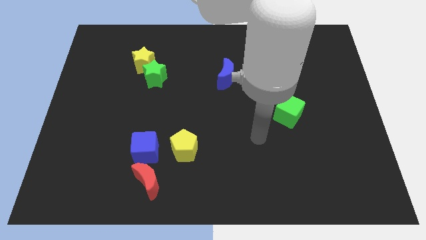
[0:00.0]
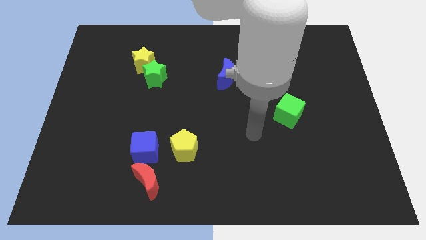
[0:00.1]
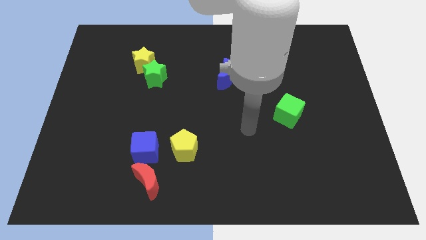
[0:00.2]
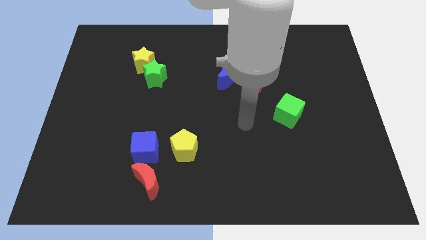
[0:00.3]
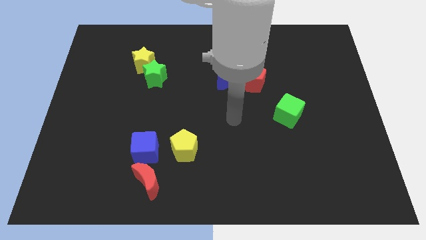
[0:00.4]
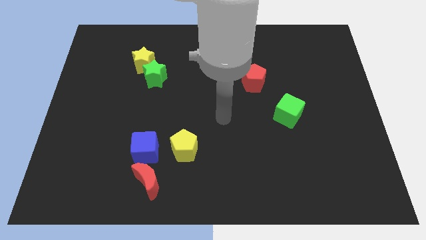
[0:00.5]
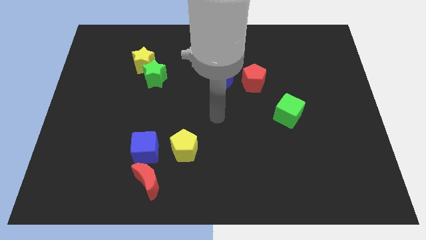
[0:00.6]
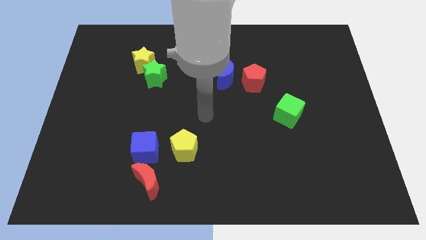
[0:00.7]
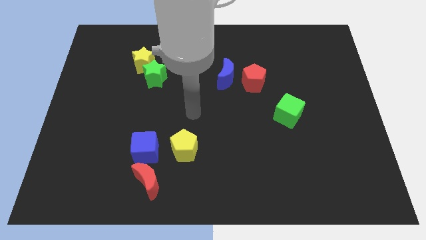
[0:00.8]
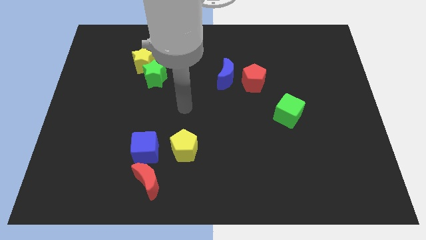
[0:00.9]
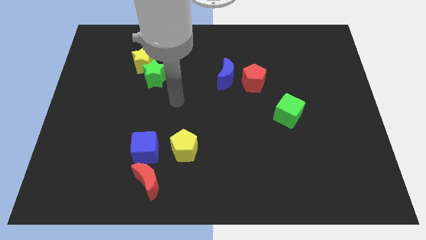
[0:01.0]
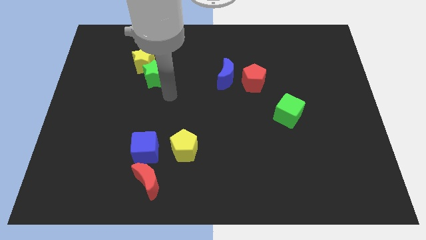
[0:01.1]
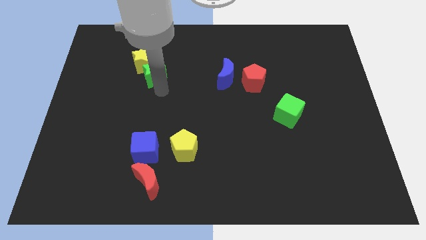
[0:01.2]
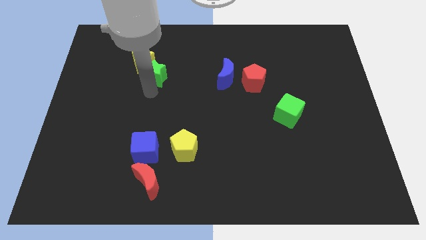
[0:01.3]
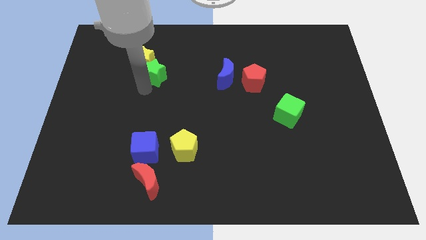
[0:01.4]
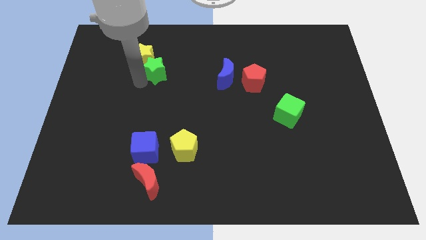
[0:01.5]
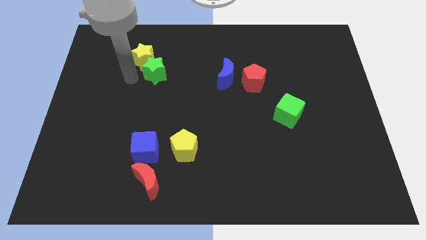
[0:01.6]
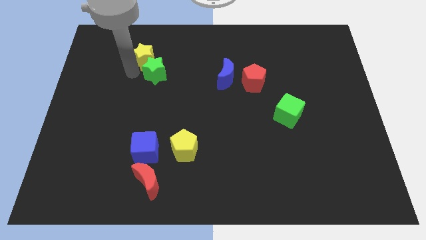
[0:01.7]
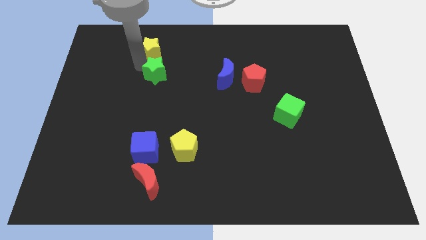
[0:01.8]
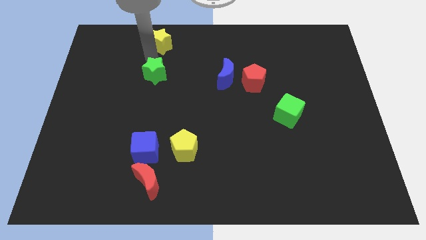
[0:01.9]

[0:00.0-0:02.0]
move the green star away from the yellow star

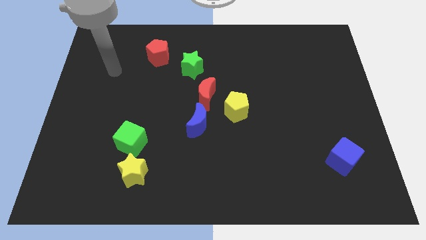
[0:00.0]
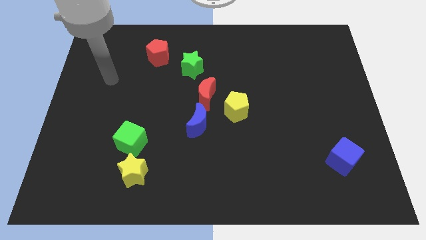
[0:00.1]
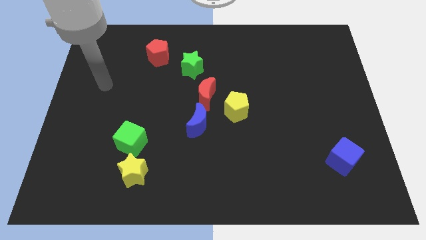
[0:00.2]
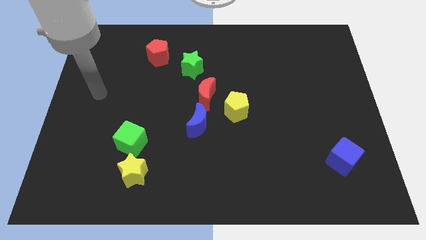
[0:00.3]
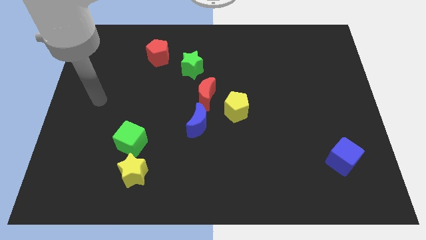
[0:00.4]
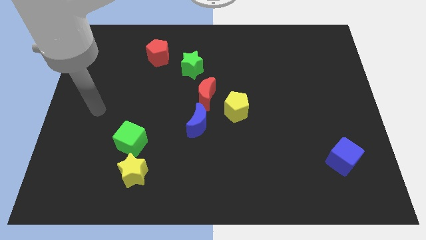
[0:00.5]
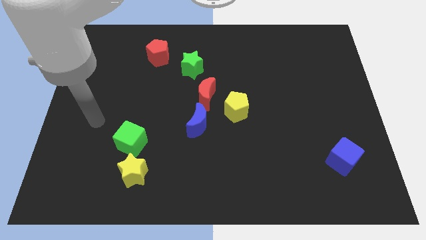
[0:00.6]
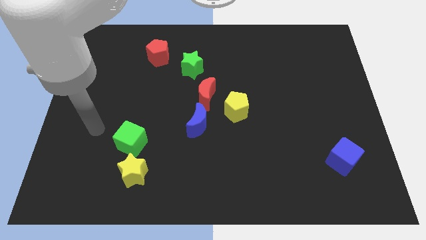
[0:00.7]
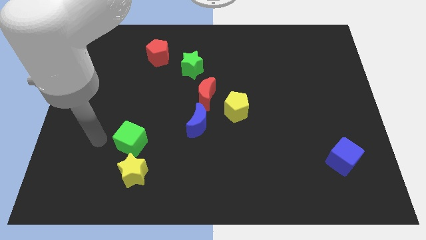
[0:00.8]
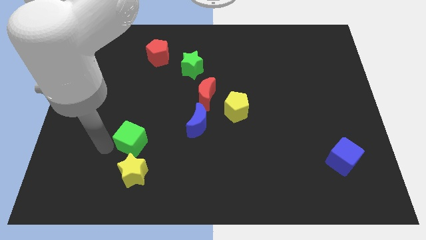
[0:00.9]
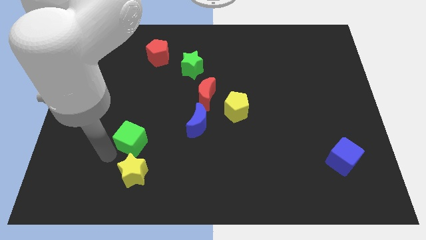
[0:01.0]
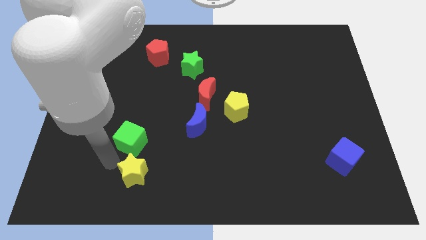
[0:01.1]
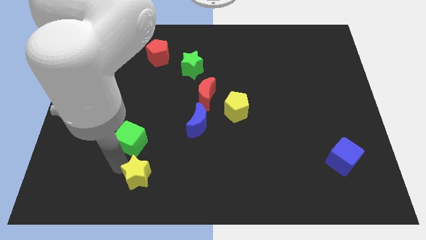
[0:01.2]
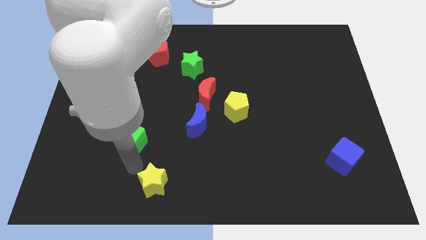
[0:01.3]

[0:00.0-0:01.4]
move the green cube away from the yellow star

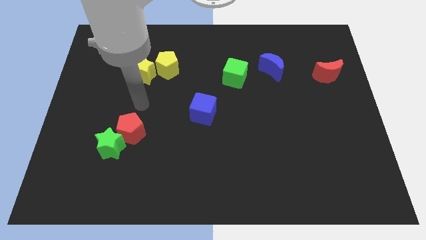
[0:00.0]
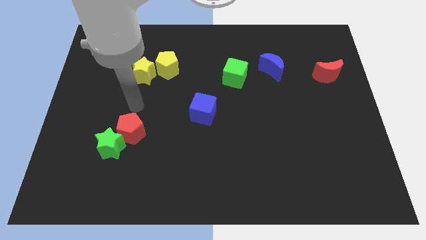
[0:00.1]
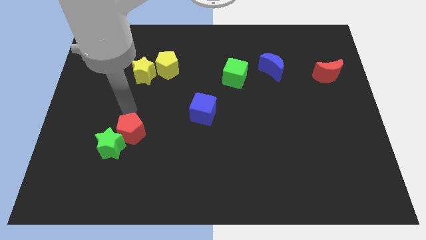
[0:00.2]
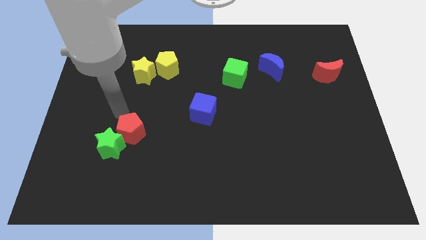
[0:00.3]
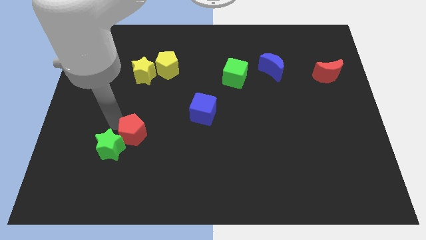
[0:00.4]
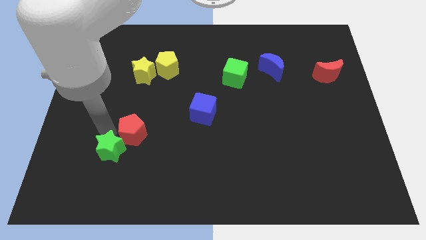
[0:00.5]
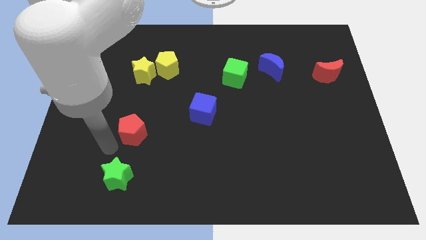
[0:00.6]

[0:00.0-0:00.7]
separate the red pentagon from the green star

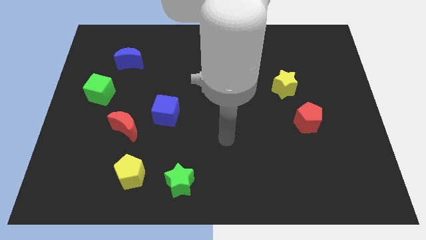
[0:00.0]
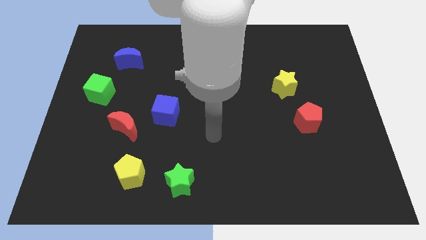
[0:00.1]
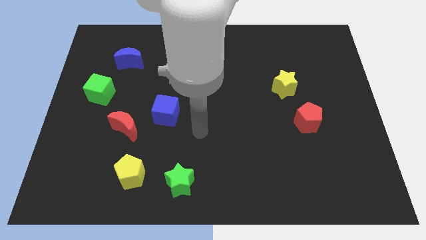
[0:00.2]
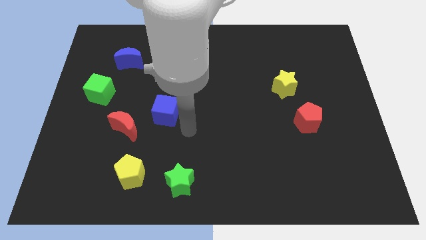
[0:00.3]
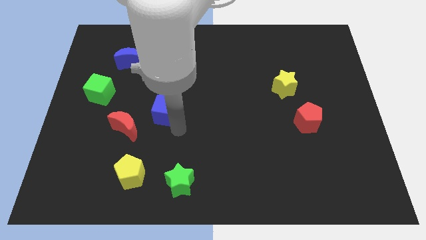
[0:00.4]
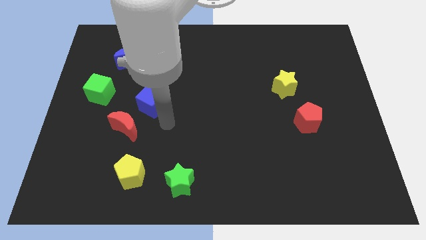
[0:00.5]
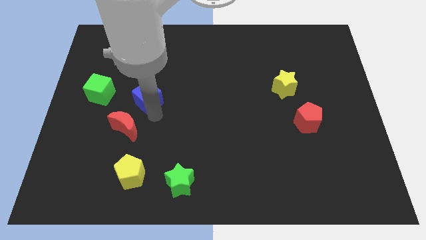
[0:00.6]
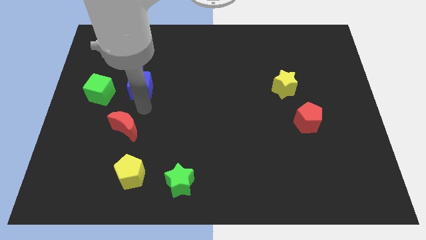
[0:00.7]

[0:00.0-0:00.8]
separate the red moon from the blue cube

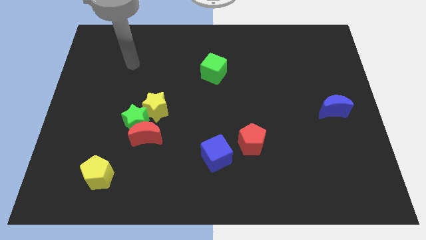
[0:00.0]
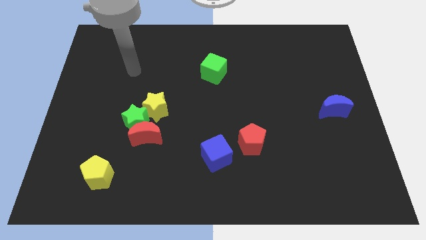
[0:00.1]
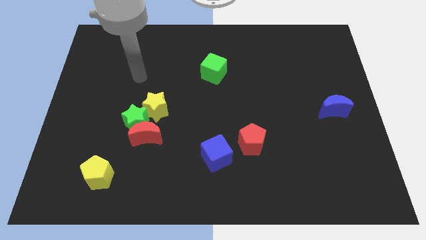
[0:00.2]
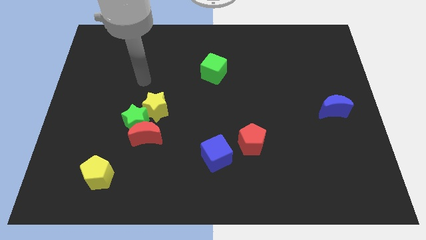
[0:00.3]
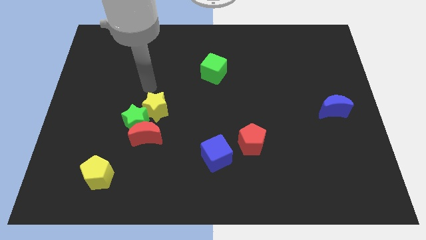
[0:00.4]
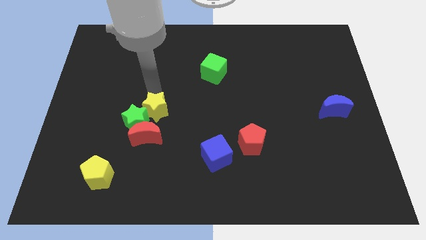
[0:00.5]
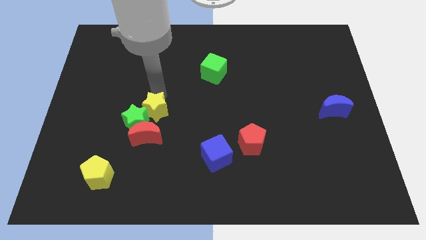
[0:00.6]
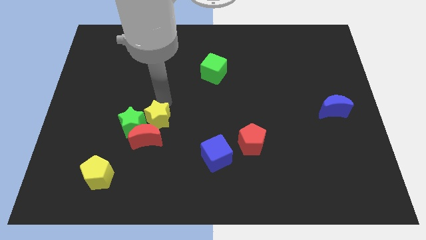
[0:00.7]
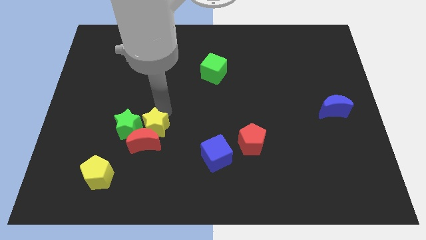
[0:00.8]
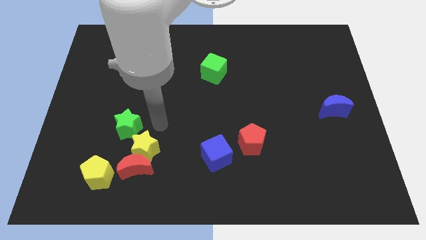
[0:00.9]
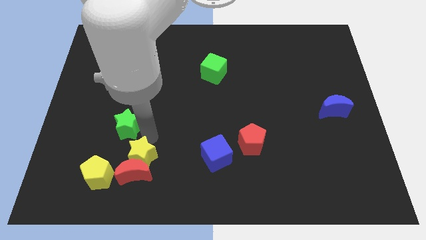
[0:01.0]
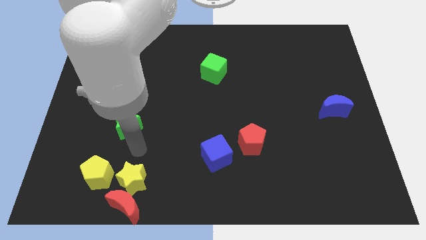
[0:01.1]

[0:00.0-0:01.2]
move the green star away from the red moon and yellow star

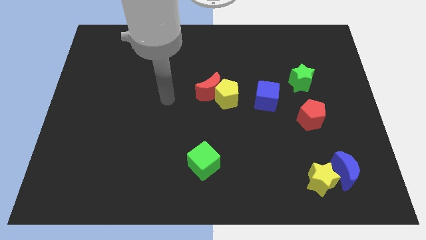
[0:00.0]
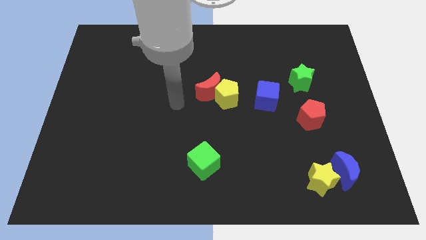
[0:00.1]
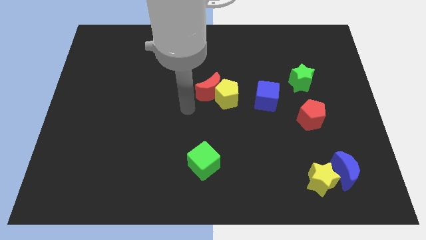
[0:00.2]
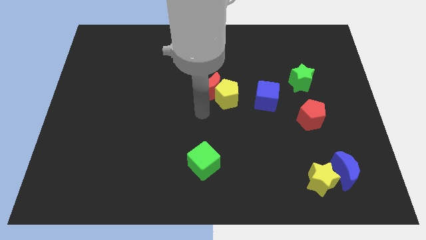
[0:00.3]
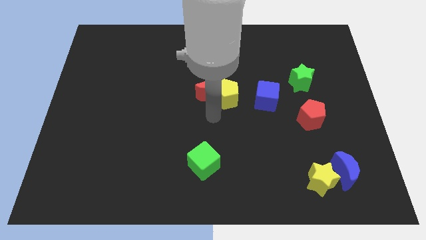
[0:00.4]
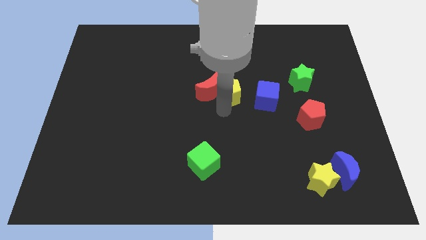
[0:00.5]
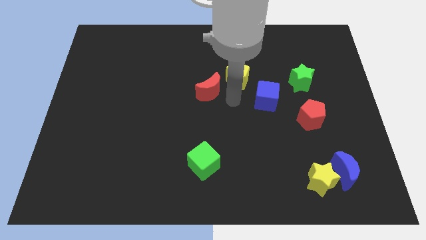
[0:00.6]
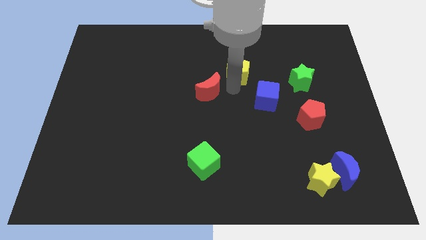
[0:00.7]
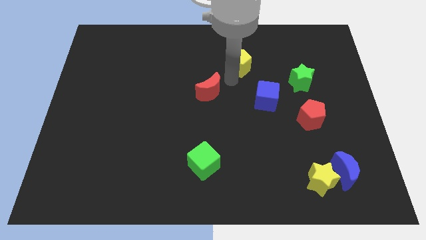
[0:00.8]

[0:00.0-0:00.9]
separate the red moon from the yellow pentagon

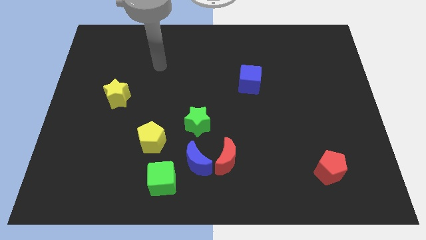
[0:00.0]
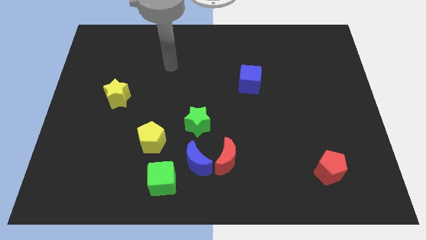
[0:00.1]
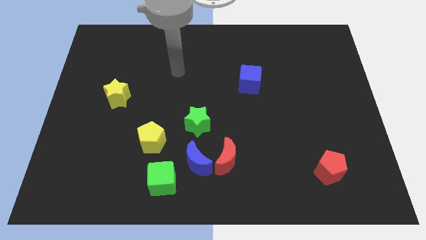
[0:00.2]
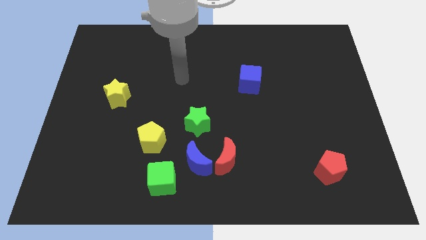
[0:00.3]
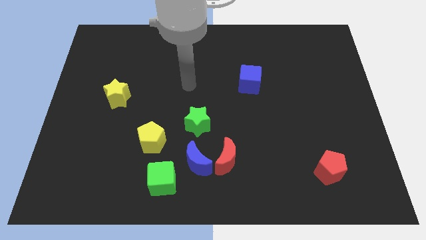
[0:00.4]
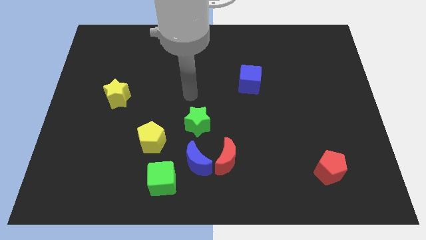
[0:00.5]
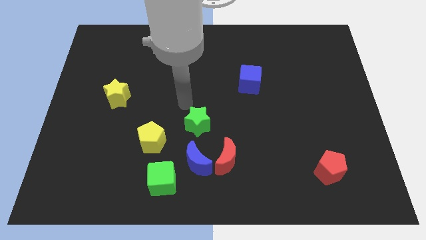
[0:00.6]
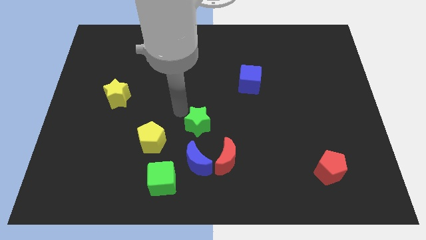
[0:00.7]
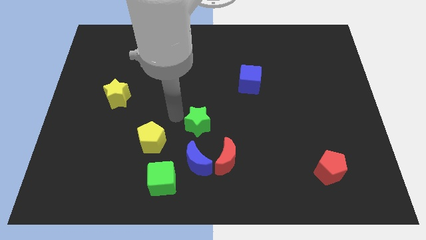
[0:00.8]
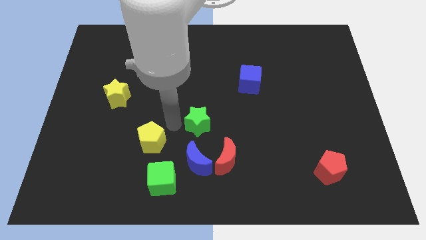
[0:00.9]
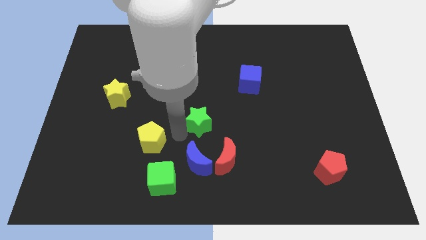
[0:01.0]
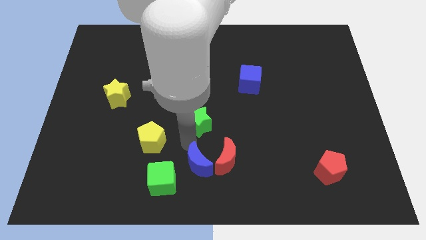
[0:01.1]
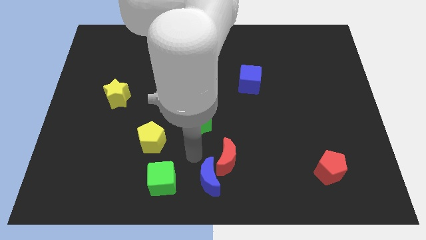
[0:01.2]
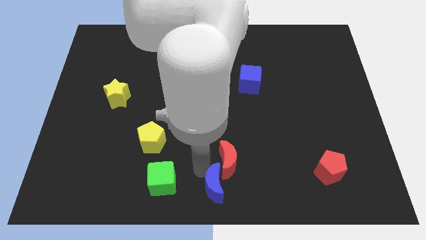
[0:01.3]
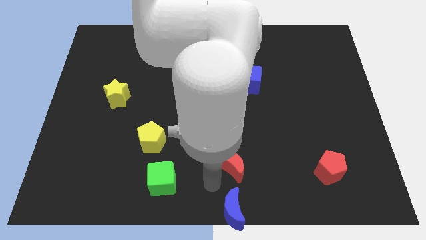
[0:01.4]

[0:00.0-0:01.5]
separate the red moon from the blue moon

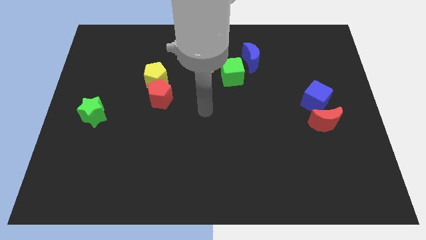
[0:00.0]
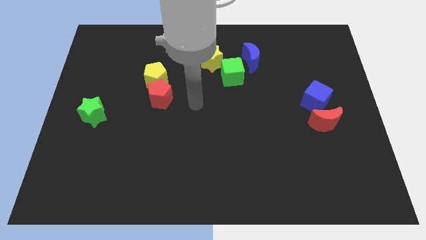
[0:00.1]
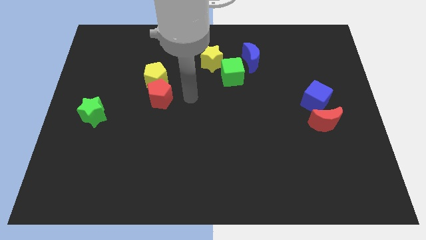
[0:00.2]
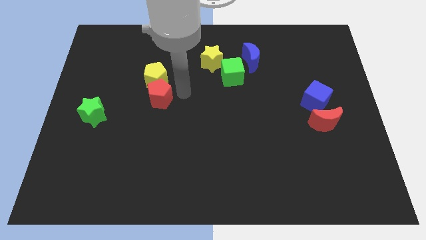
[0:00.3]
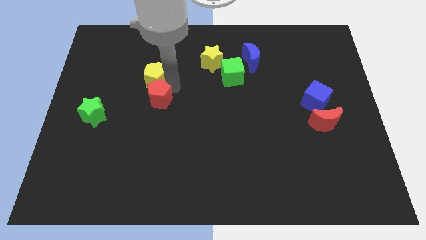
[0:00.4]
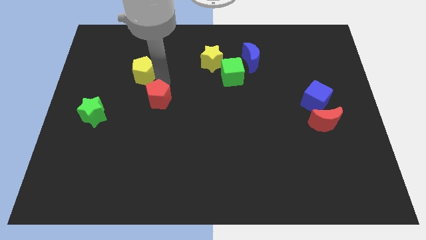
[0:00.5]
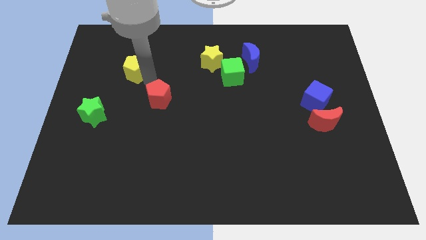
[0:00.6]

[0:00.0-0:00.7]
separate the red pentagon from the yellow pentagon
